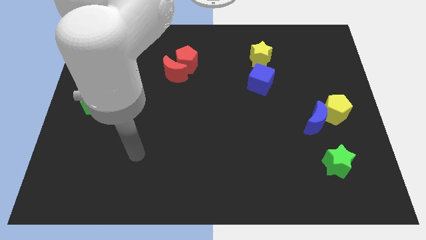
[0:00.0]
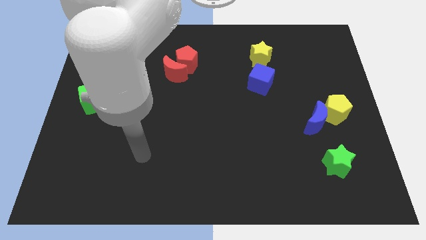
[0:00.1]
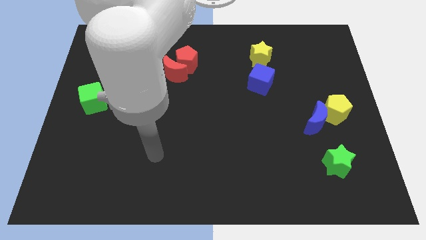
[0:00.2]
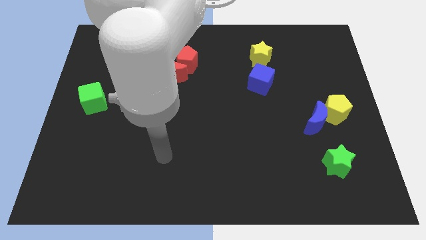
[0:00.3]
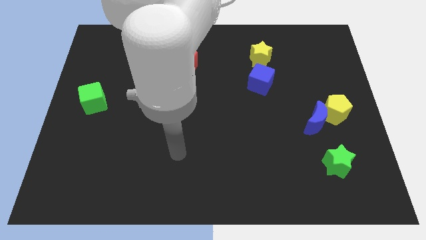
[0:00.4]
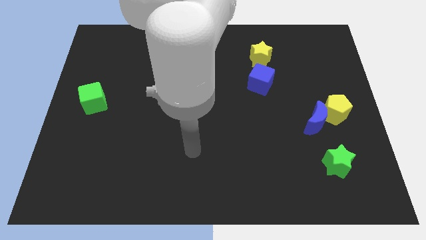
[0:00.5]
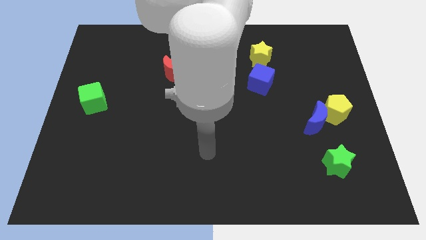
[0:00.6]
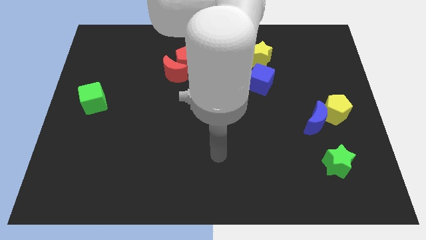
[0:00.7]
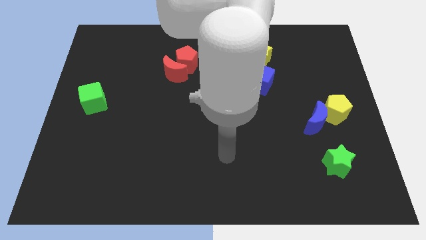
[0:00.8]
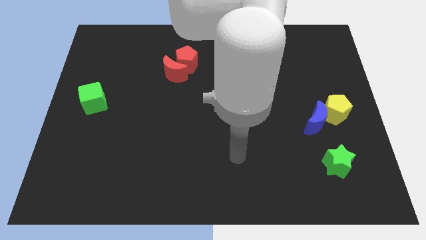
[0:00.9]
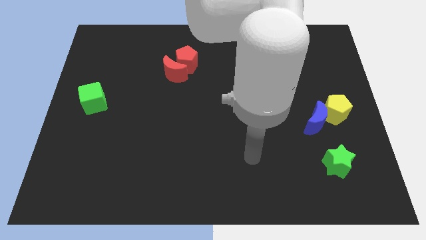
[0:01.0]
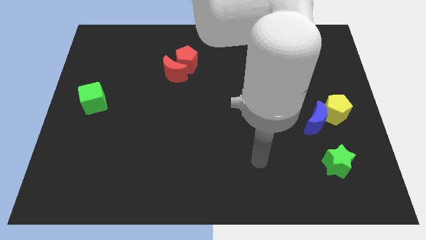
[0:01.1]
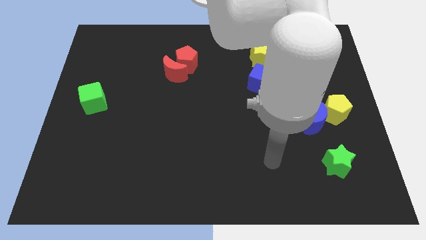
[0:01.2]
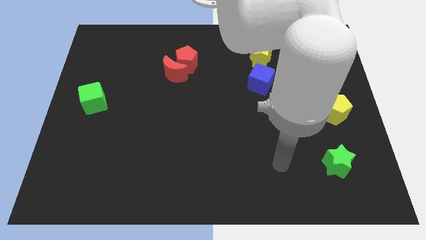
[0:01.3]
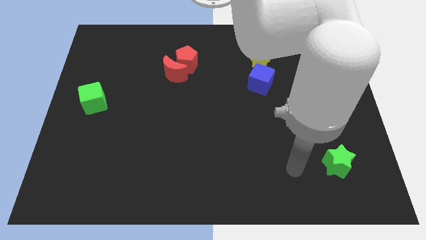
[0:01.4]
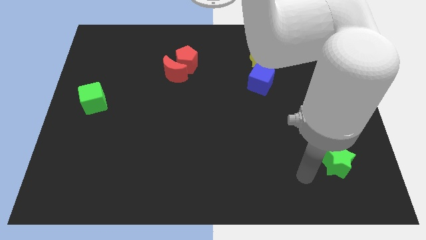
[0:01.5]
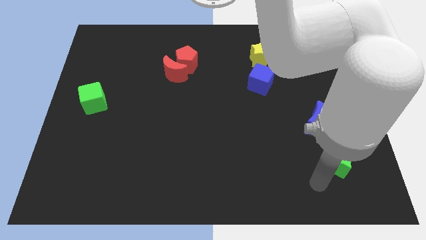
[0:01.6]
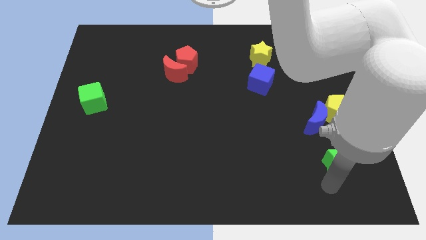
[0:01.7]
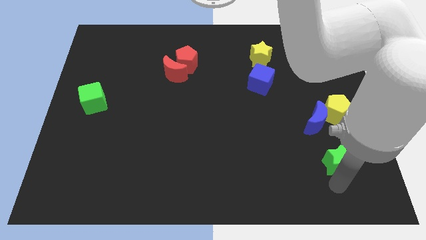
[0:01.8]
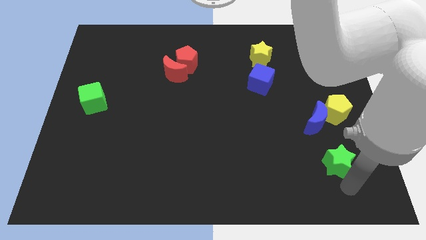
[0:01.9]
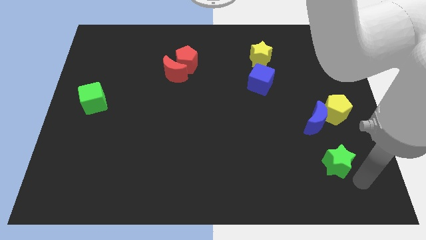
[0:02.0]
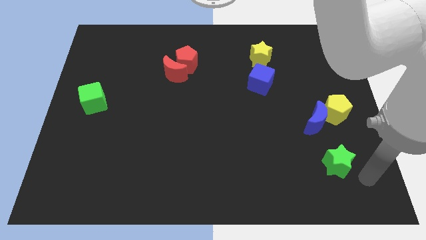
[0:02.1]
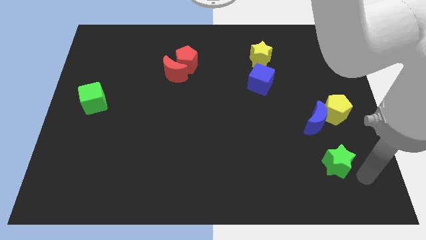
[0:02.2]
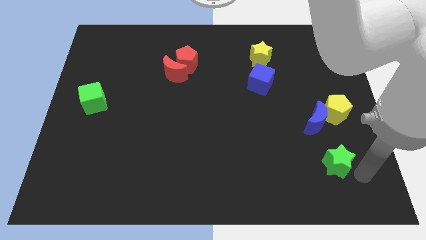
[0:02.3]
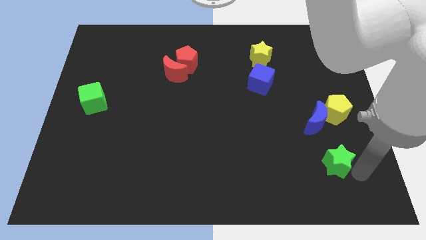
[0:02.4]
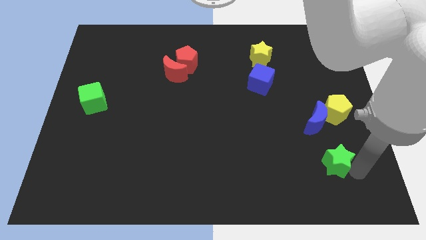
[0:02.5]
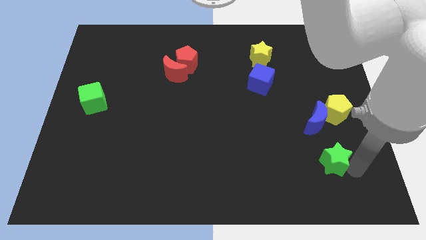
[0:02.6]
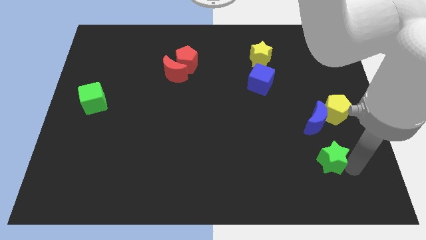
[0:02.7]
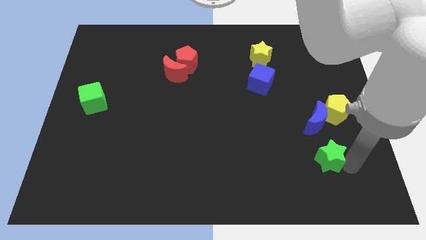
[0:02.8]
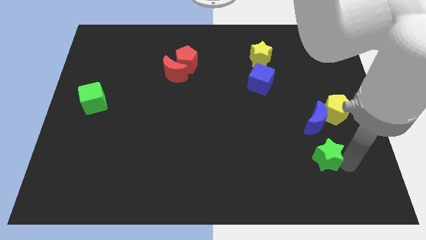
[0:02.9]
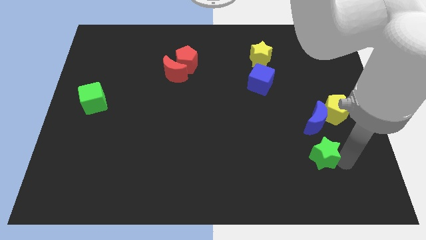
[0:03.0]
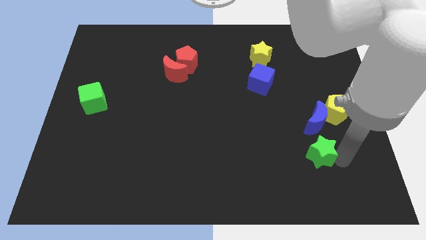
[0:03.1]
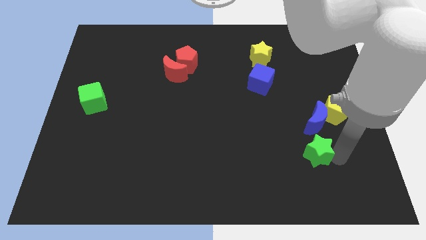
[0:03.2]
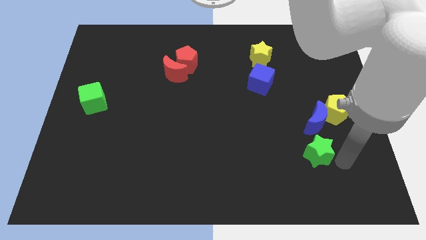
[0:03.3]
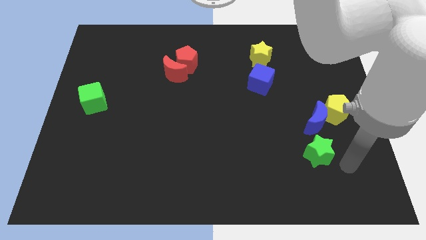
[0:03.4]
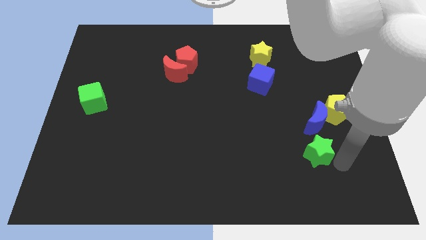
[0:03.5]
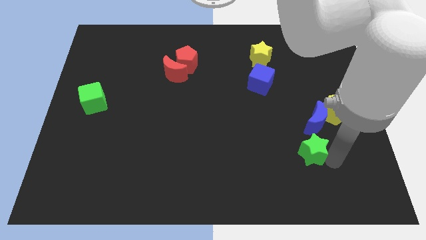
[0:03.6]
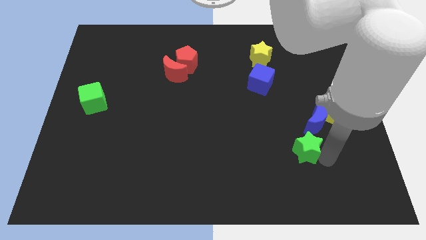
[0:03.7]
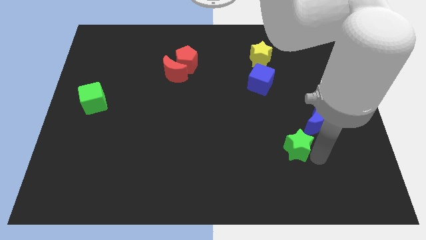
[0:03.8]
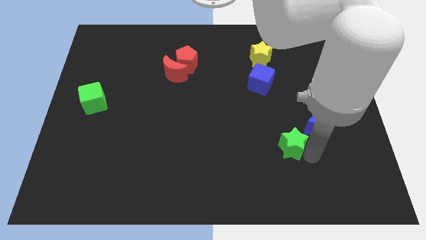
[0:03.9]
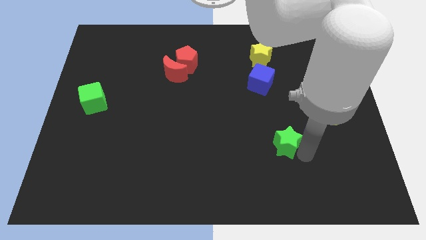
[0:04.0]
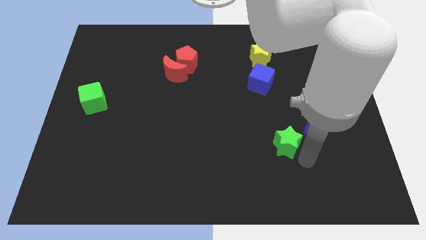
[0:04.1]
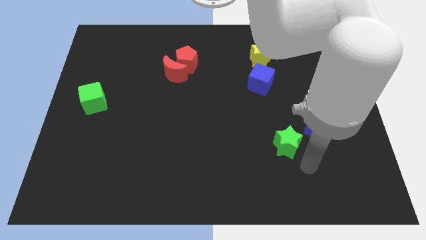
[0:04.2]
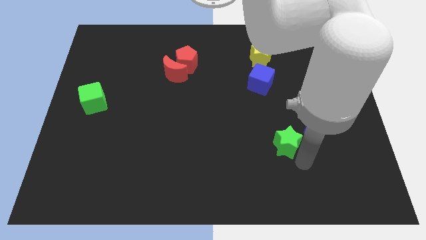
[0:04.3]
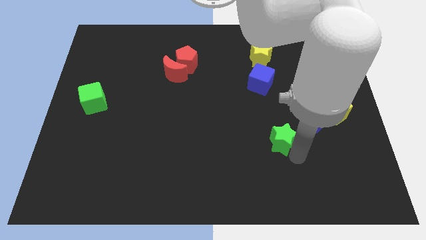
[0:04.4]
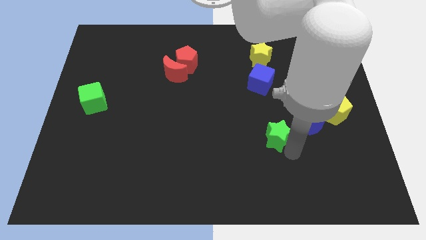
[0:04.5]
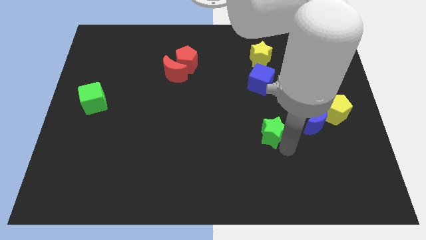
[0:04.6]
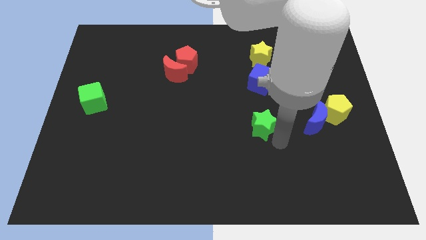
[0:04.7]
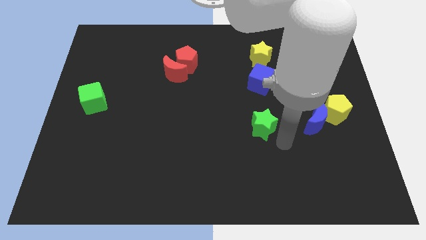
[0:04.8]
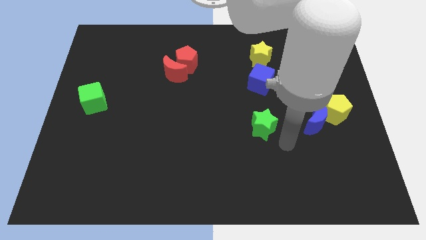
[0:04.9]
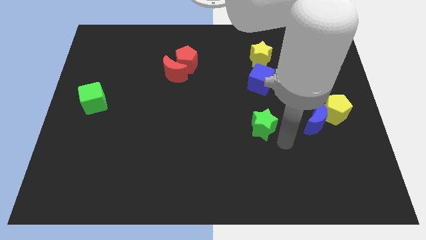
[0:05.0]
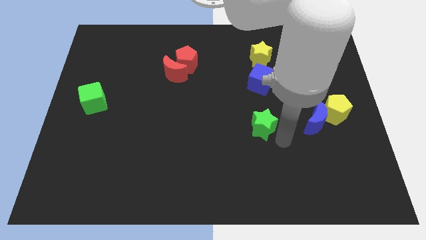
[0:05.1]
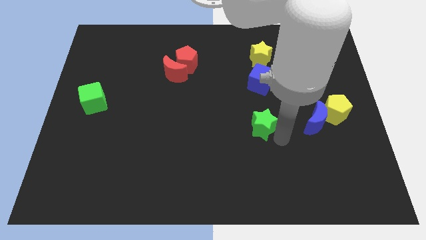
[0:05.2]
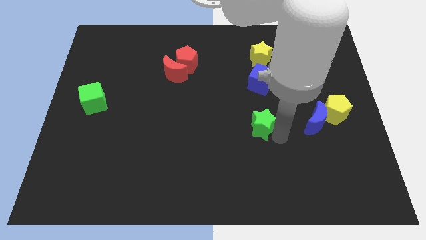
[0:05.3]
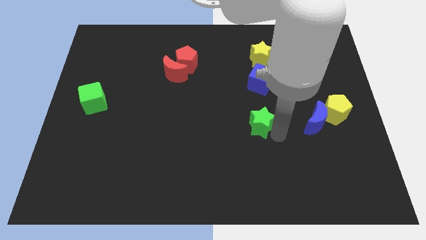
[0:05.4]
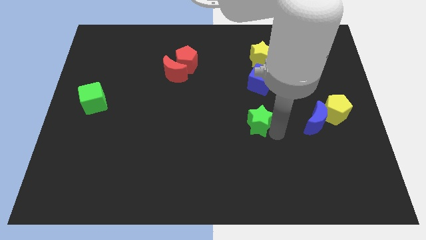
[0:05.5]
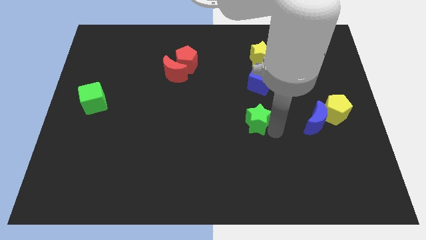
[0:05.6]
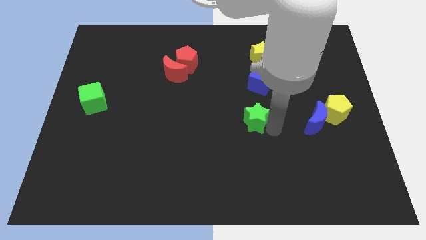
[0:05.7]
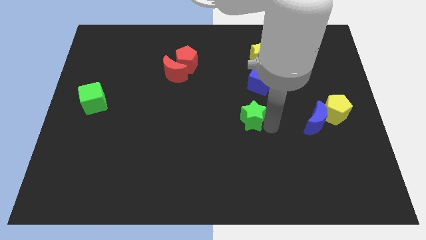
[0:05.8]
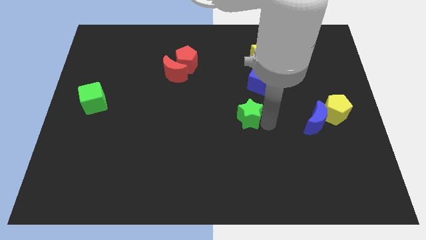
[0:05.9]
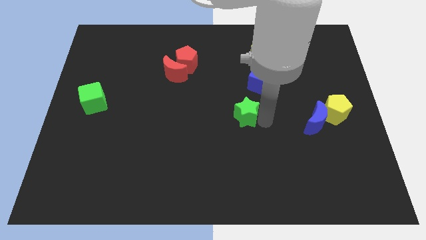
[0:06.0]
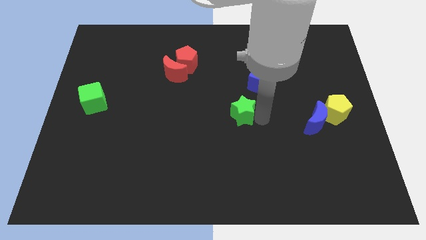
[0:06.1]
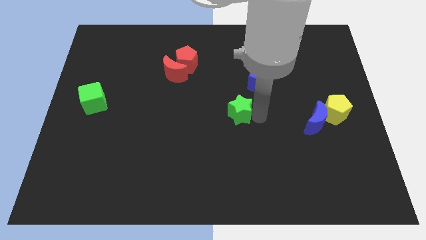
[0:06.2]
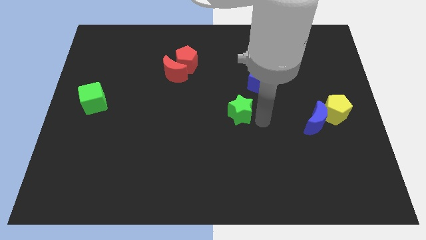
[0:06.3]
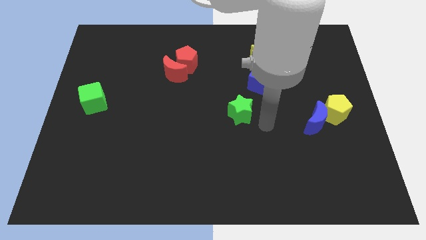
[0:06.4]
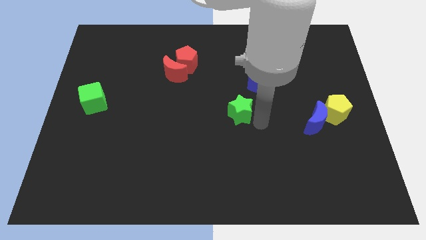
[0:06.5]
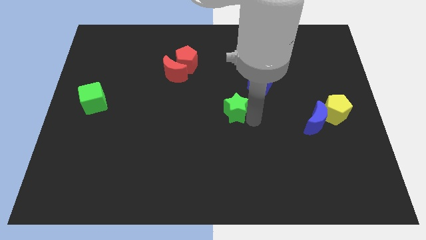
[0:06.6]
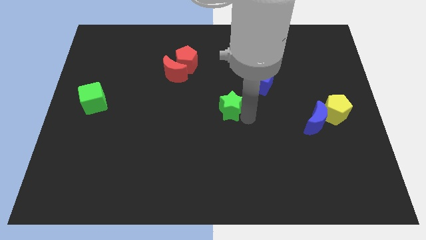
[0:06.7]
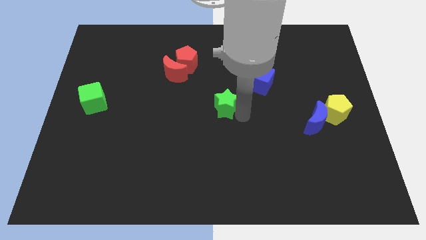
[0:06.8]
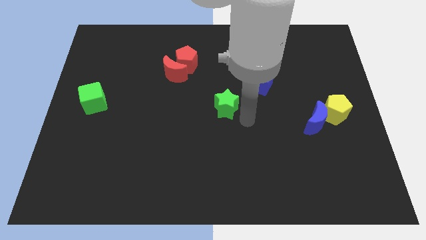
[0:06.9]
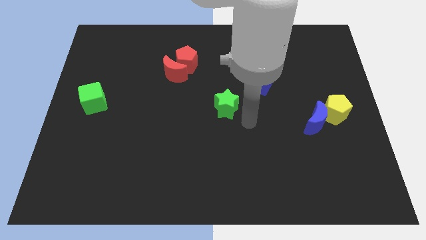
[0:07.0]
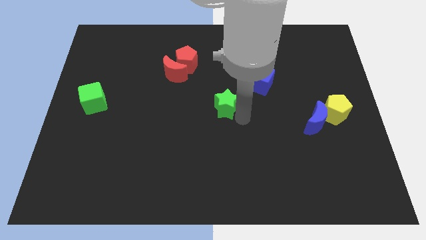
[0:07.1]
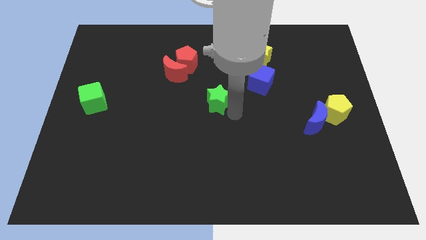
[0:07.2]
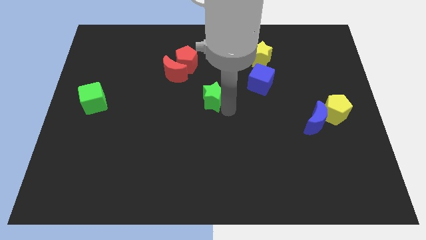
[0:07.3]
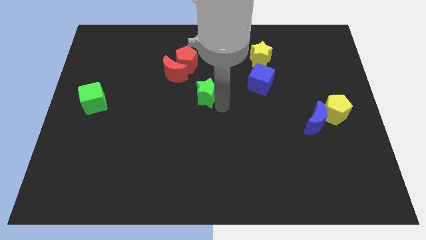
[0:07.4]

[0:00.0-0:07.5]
slide the green star to the bottom right of the red moon
